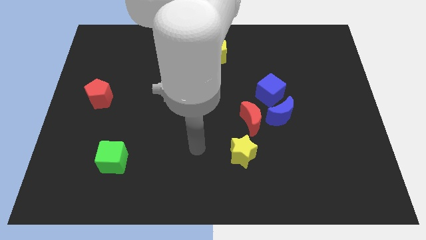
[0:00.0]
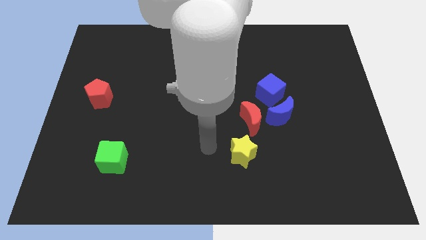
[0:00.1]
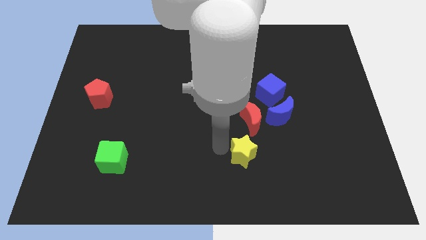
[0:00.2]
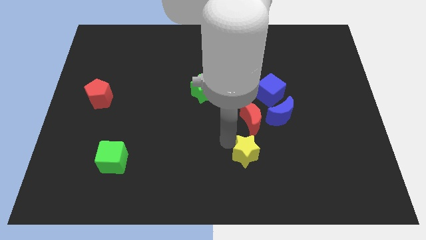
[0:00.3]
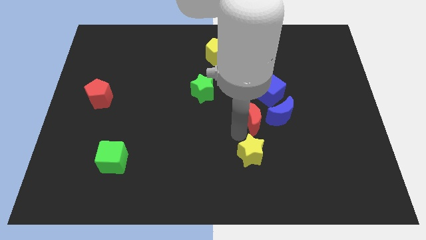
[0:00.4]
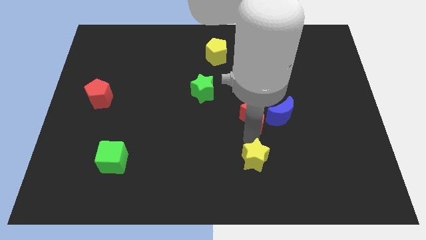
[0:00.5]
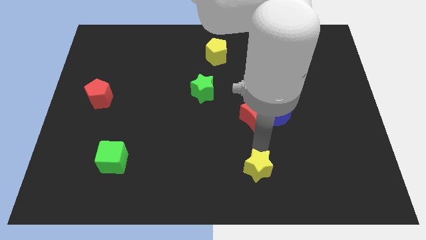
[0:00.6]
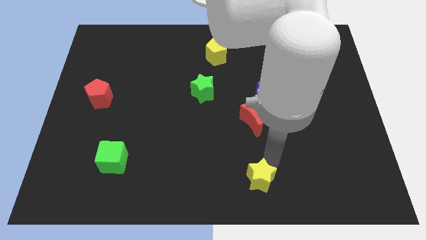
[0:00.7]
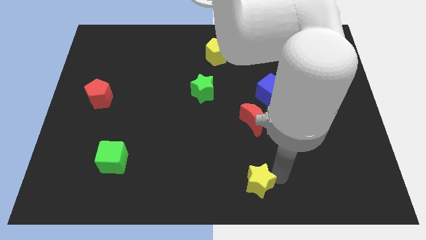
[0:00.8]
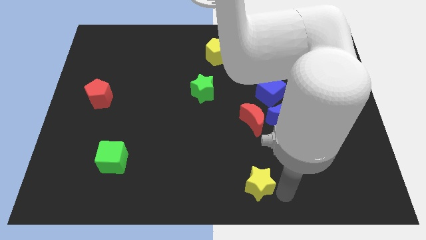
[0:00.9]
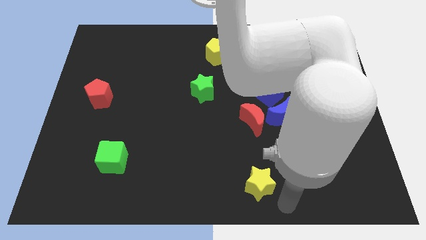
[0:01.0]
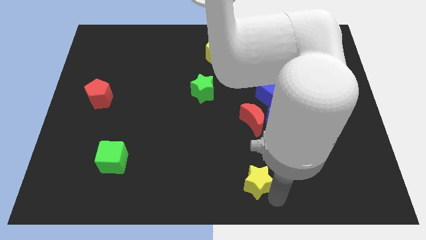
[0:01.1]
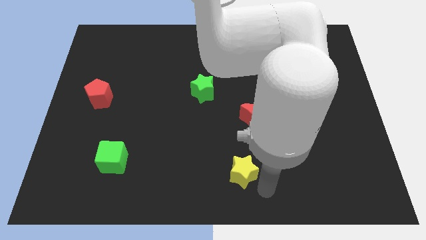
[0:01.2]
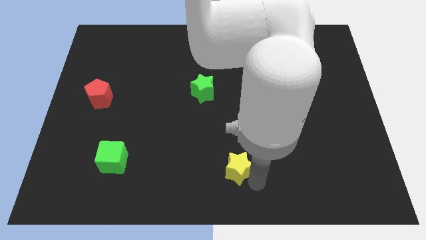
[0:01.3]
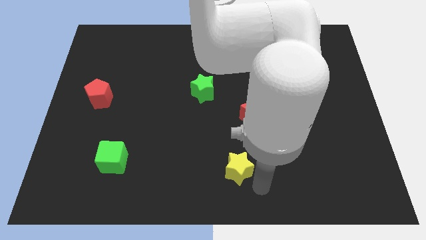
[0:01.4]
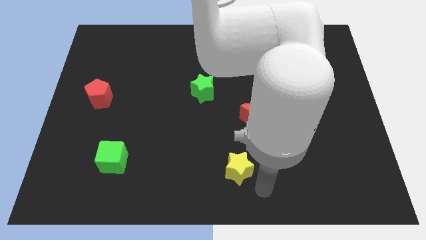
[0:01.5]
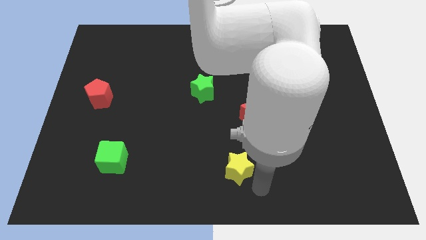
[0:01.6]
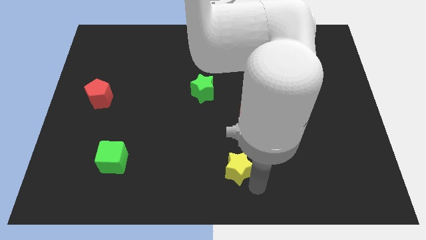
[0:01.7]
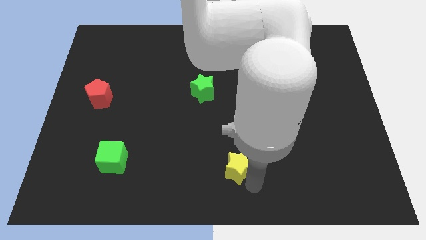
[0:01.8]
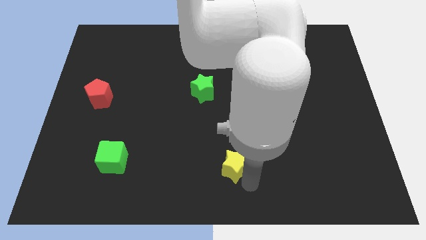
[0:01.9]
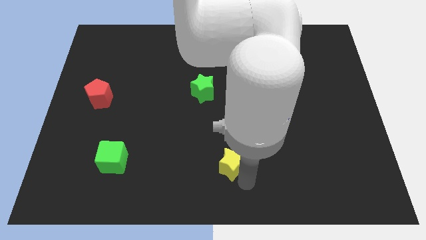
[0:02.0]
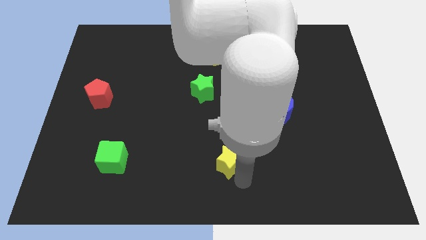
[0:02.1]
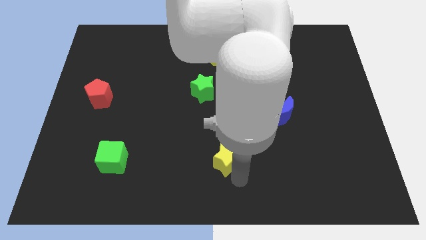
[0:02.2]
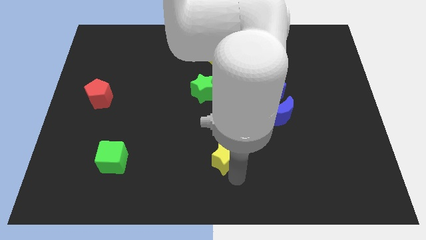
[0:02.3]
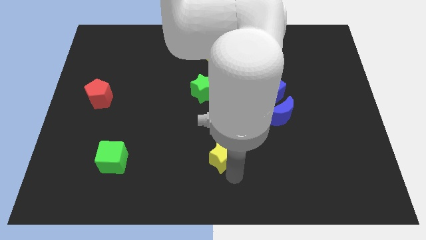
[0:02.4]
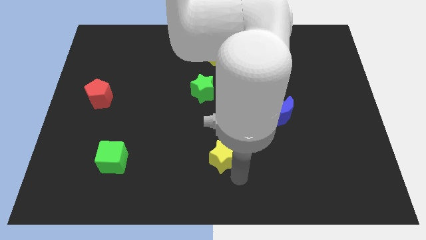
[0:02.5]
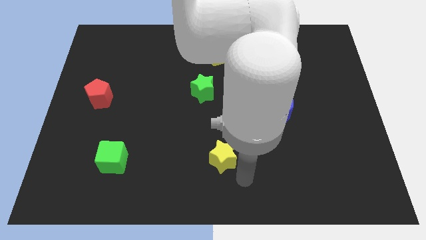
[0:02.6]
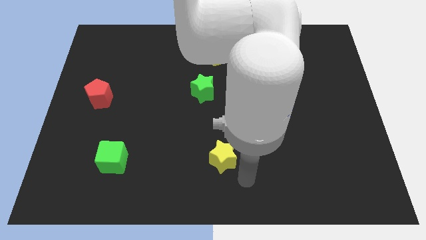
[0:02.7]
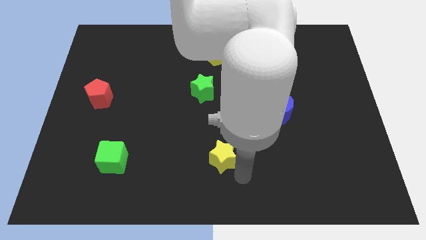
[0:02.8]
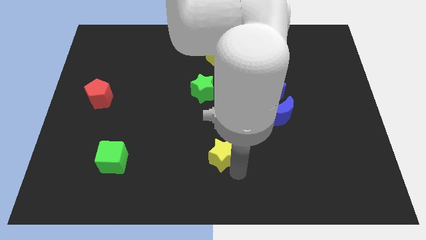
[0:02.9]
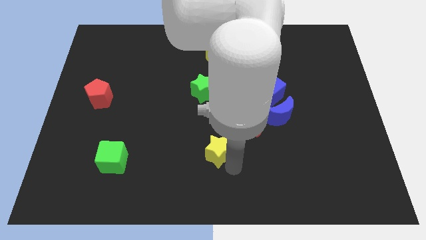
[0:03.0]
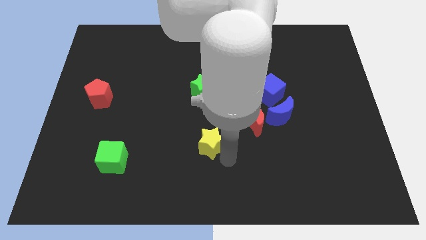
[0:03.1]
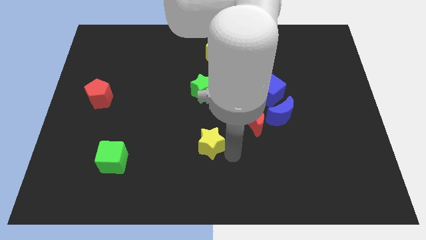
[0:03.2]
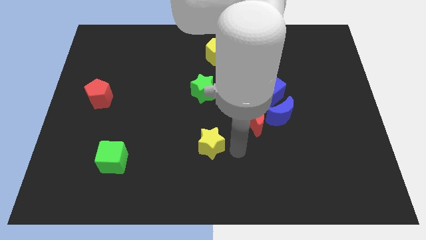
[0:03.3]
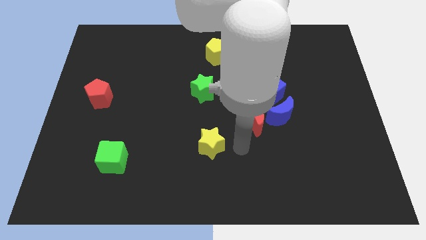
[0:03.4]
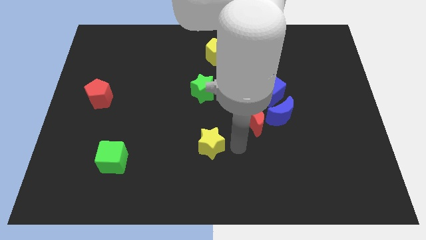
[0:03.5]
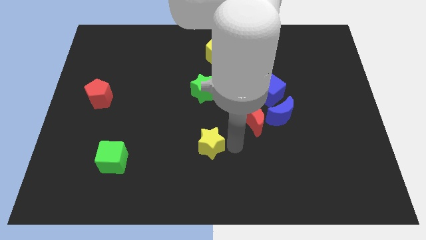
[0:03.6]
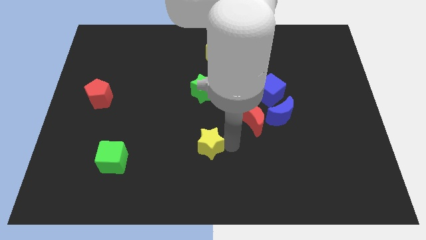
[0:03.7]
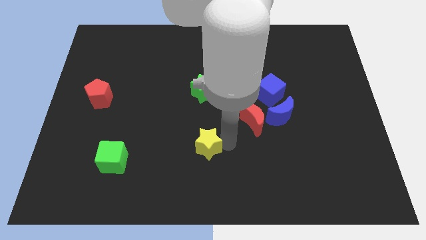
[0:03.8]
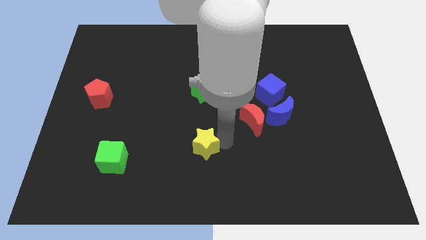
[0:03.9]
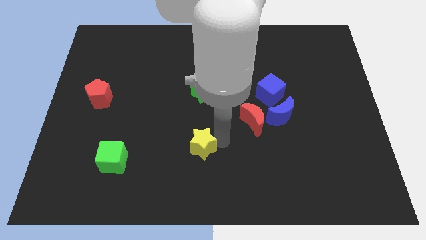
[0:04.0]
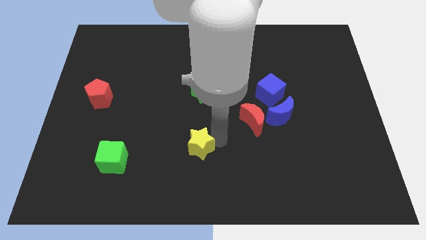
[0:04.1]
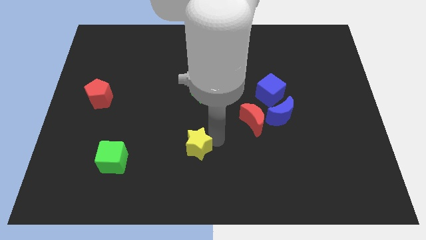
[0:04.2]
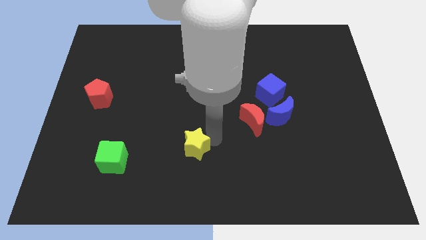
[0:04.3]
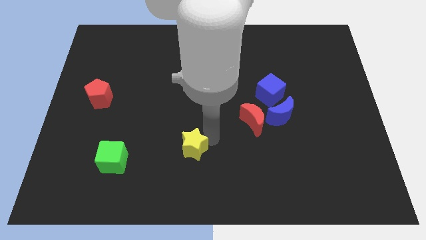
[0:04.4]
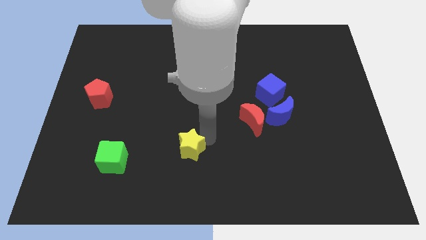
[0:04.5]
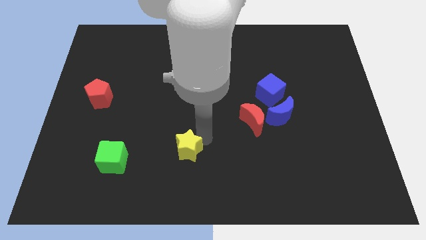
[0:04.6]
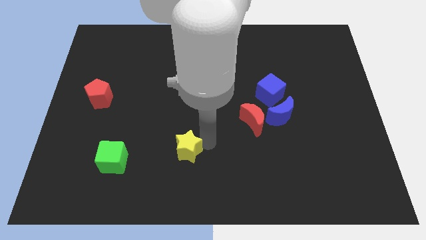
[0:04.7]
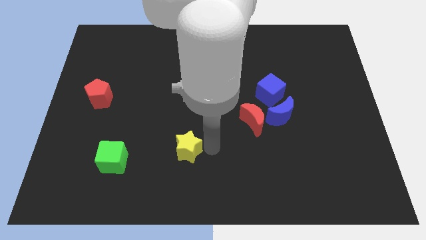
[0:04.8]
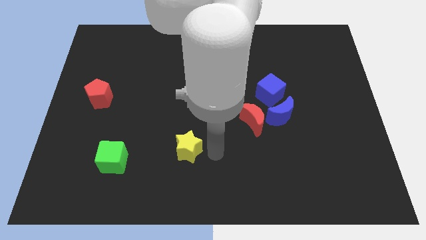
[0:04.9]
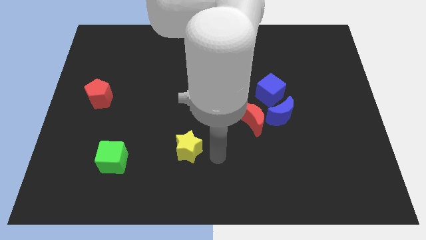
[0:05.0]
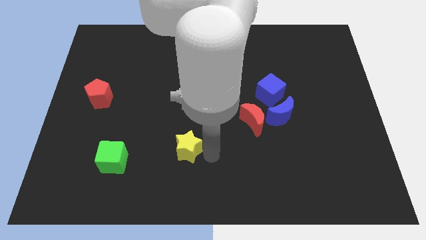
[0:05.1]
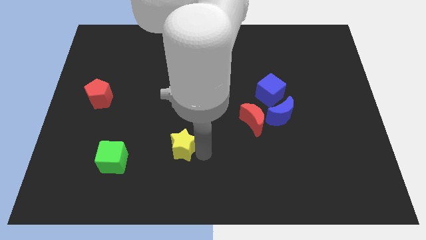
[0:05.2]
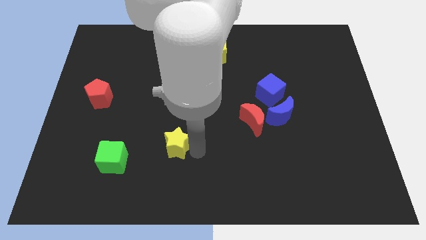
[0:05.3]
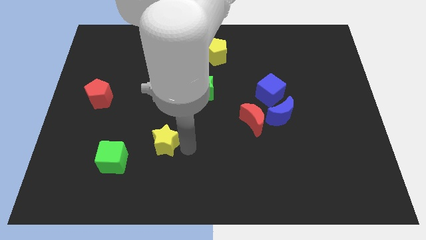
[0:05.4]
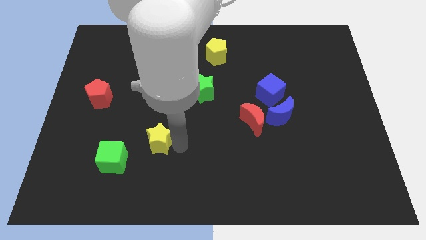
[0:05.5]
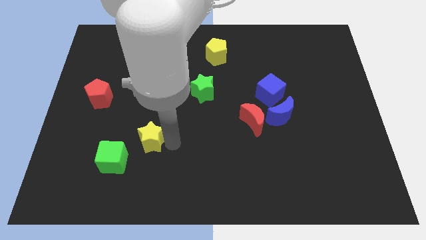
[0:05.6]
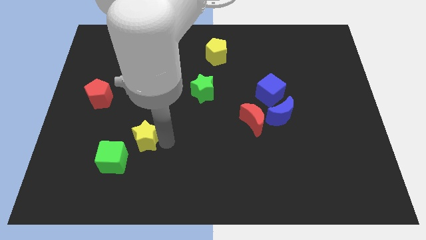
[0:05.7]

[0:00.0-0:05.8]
move the yellow star to the left

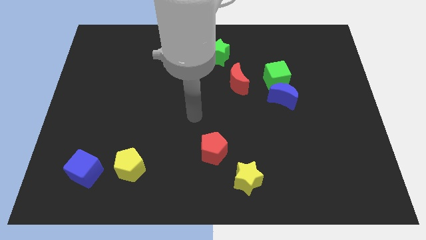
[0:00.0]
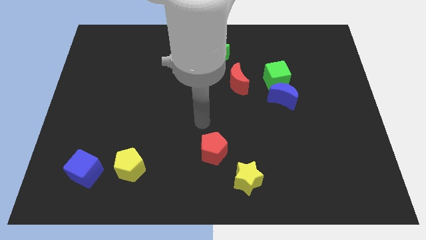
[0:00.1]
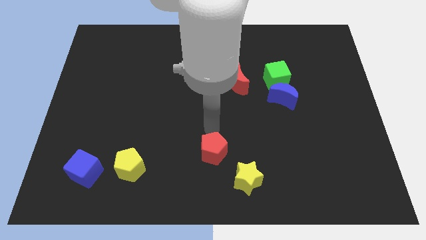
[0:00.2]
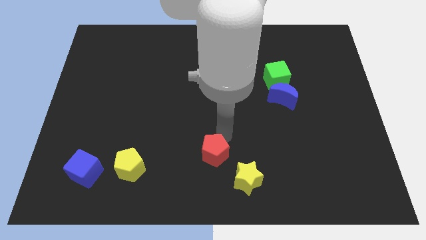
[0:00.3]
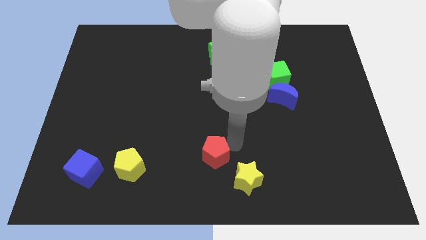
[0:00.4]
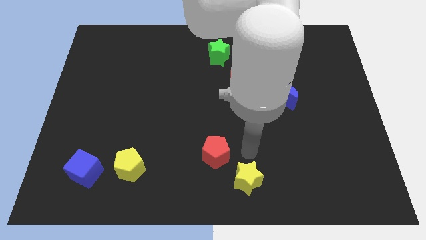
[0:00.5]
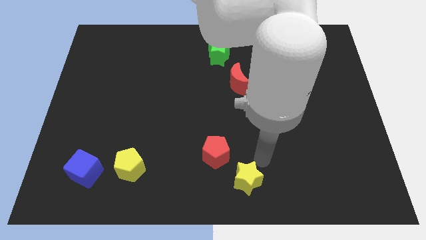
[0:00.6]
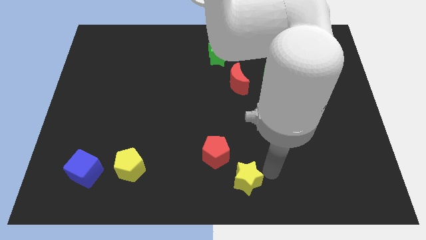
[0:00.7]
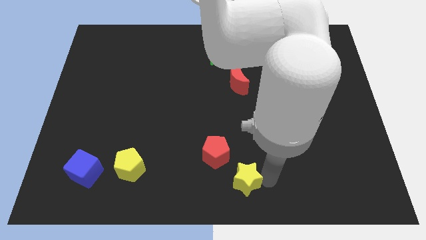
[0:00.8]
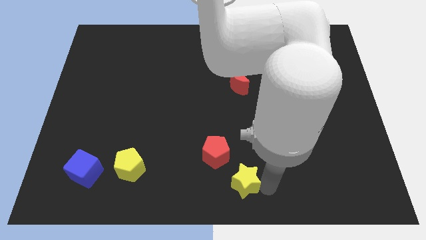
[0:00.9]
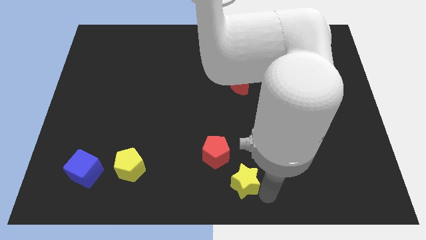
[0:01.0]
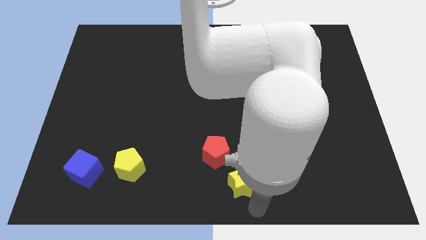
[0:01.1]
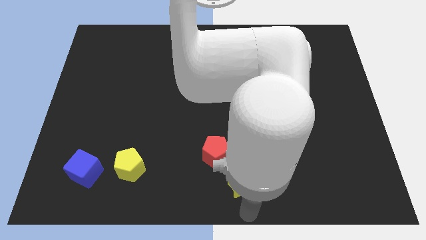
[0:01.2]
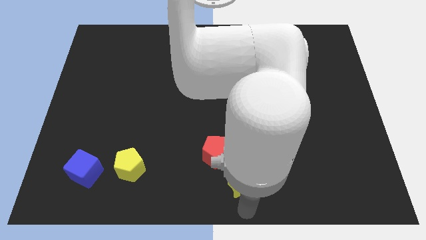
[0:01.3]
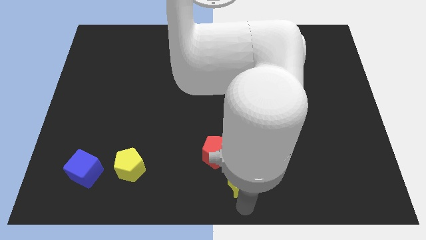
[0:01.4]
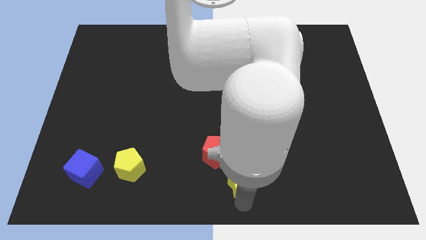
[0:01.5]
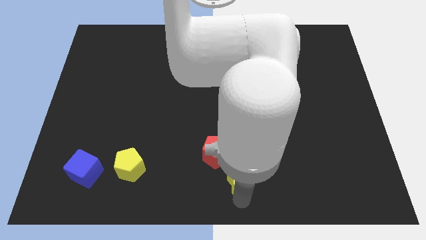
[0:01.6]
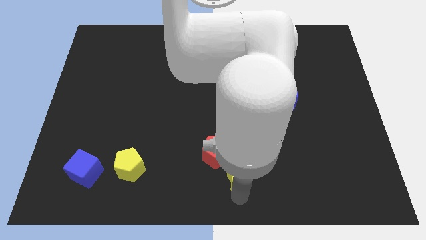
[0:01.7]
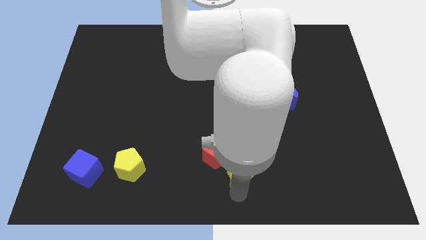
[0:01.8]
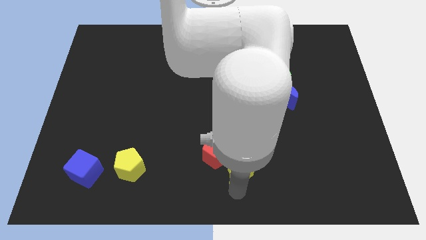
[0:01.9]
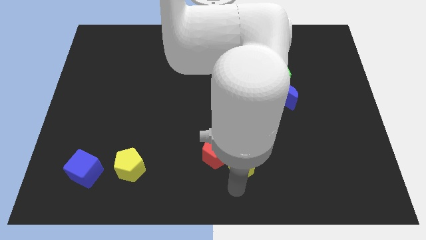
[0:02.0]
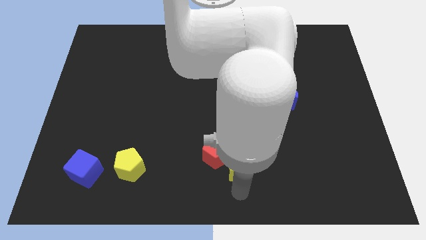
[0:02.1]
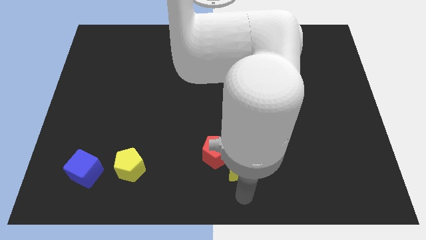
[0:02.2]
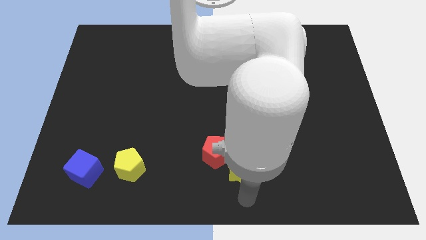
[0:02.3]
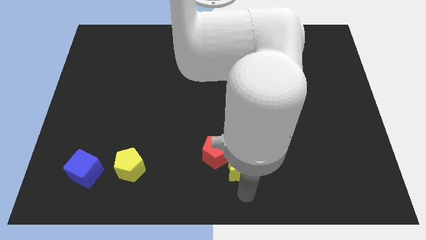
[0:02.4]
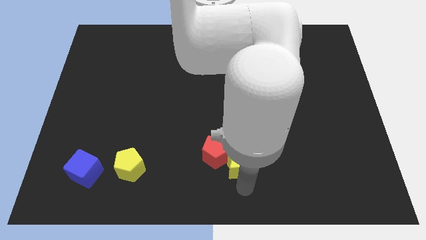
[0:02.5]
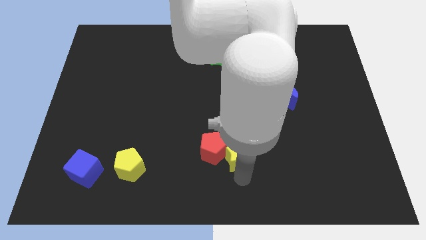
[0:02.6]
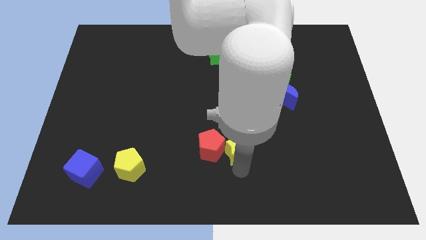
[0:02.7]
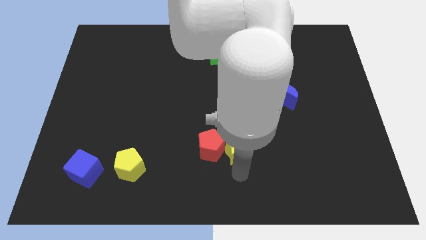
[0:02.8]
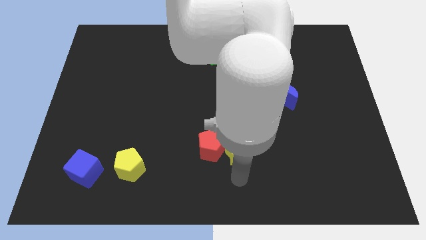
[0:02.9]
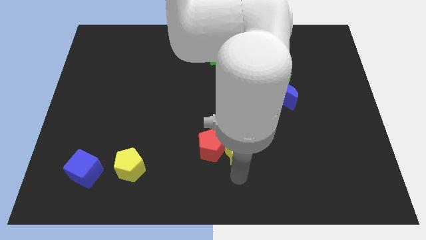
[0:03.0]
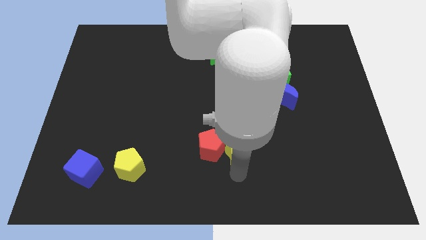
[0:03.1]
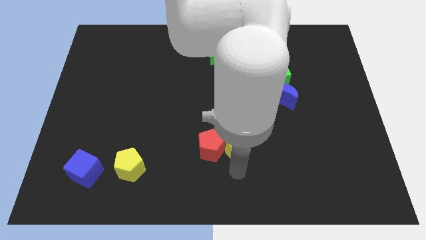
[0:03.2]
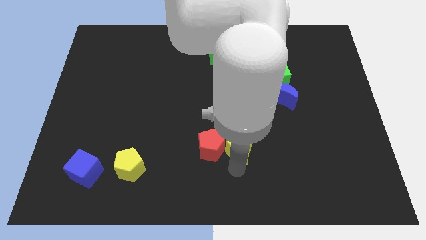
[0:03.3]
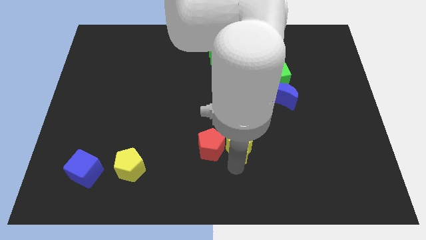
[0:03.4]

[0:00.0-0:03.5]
move the yellow star a little up
